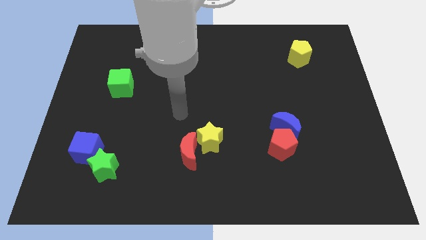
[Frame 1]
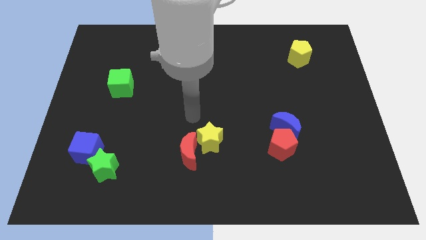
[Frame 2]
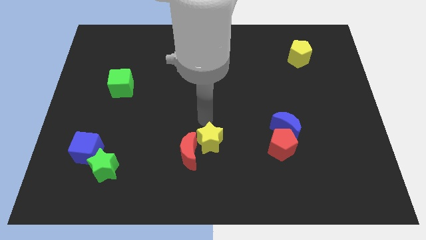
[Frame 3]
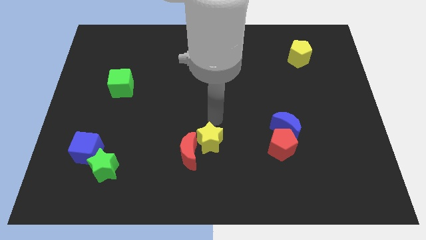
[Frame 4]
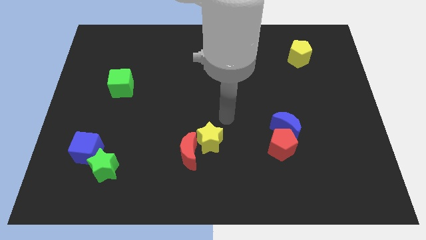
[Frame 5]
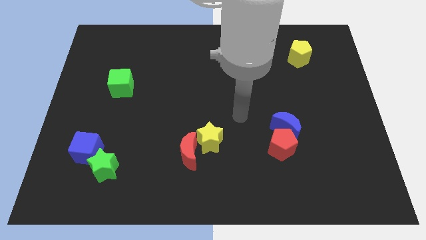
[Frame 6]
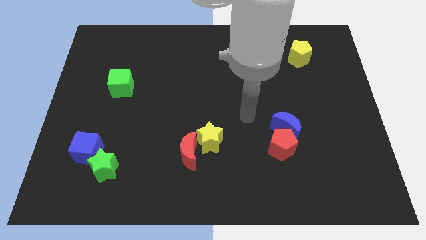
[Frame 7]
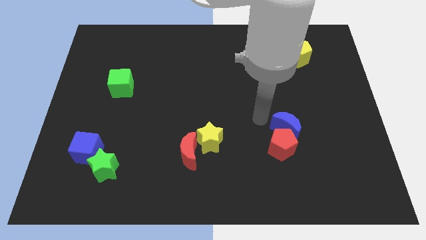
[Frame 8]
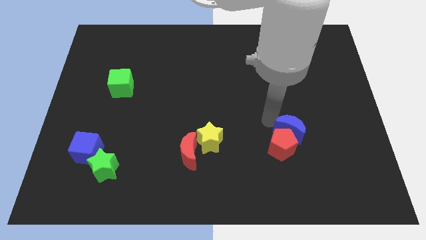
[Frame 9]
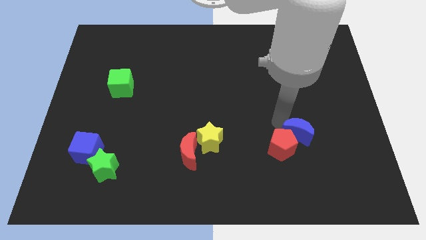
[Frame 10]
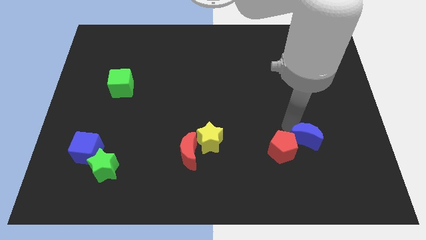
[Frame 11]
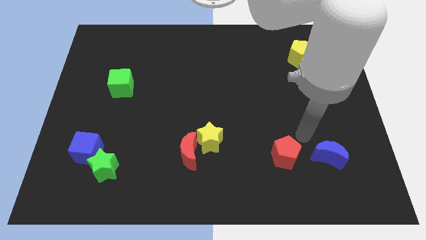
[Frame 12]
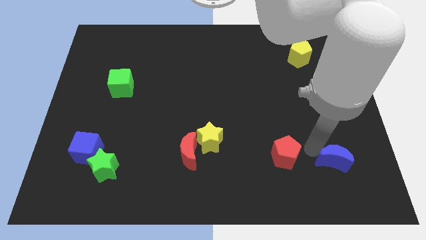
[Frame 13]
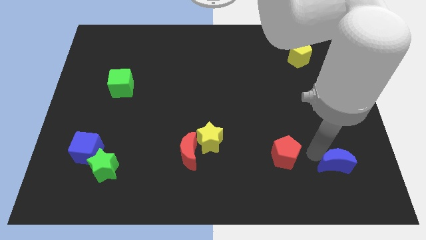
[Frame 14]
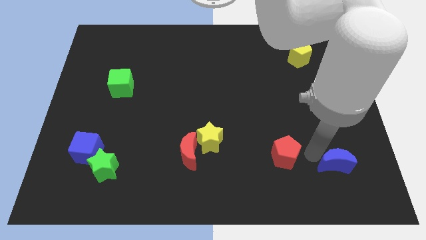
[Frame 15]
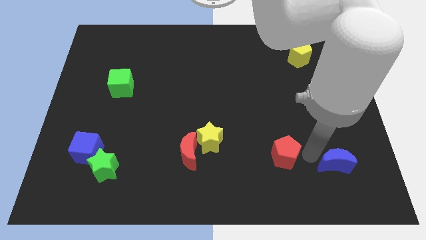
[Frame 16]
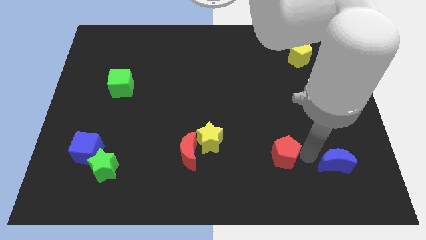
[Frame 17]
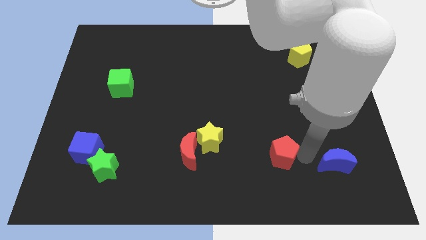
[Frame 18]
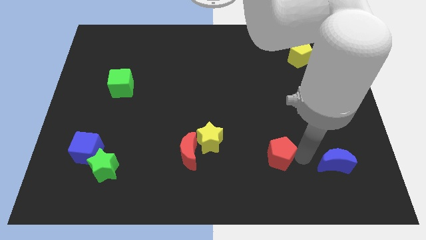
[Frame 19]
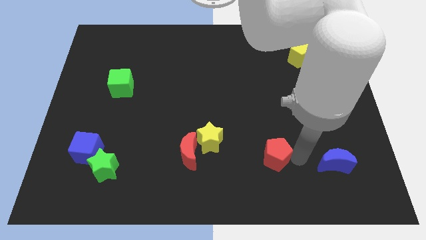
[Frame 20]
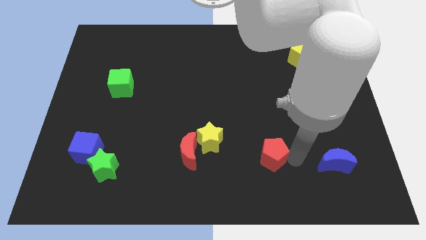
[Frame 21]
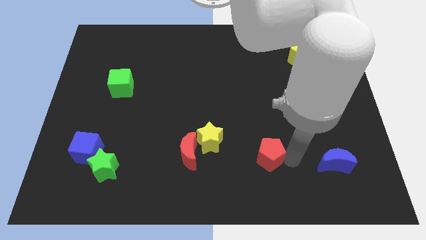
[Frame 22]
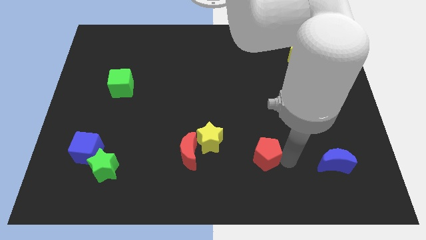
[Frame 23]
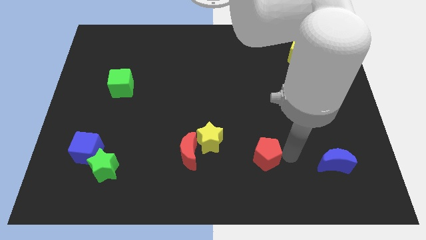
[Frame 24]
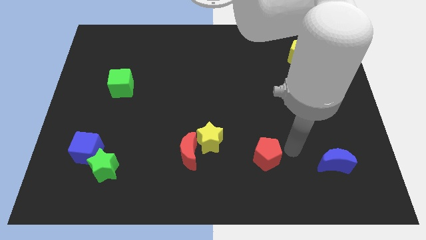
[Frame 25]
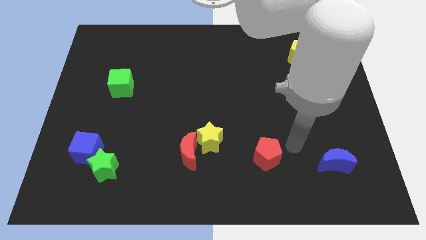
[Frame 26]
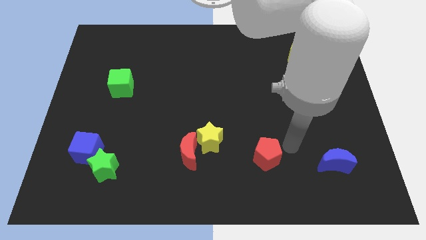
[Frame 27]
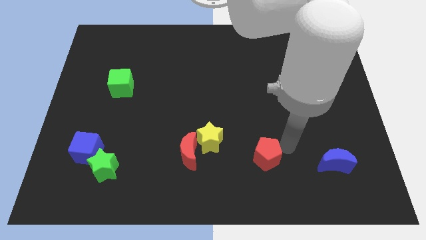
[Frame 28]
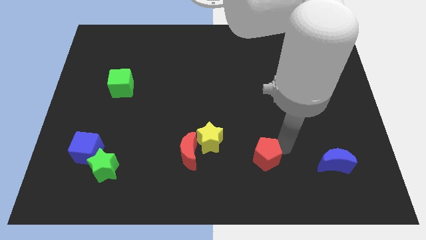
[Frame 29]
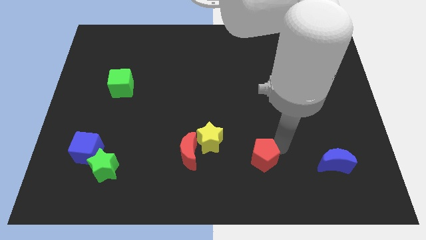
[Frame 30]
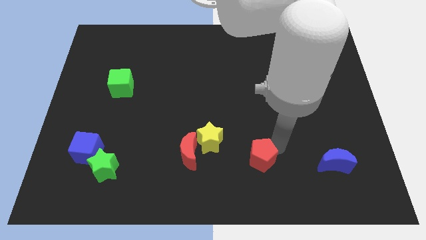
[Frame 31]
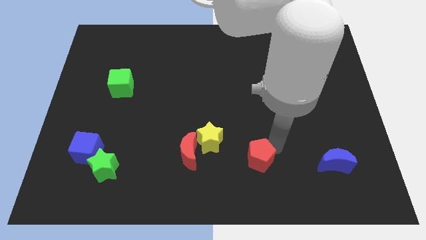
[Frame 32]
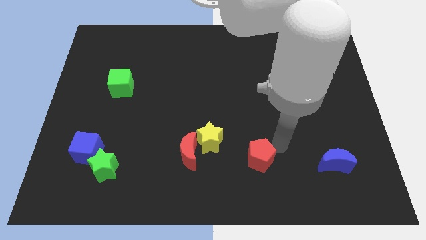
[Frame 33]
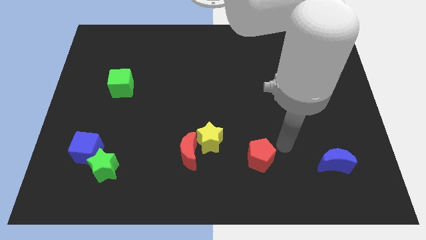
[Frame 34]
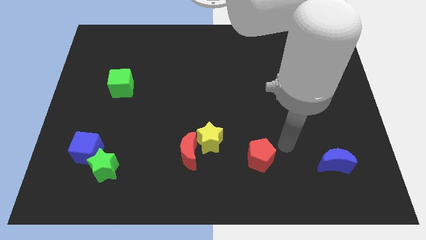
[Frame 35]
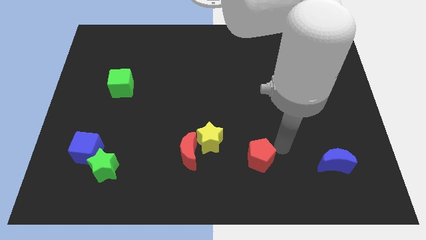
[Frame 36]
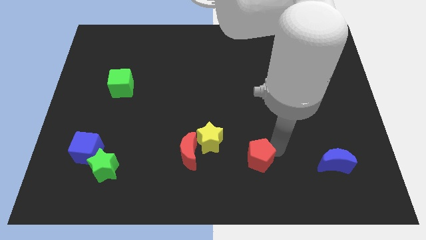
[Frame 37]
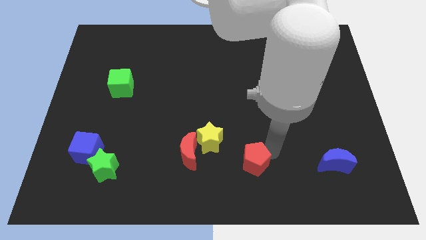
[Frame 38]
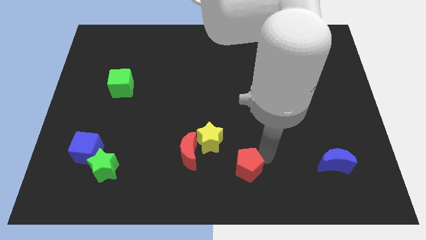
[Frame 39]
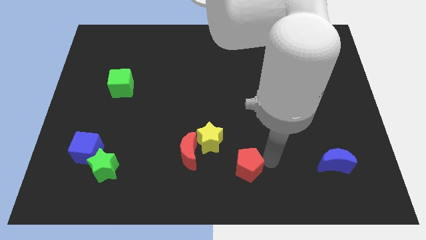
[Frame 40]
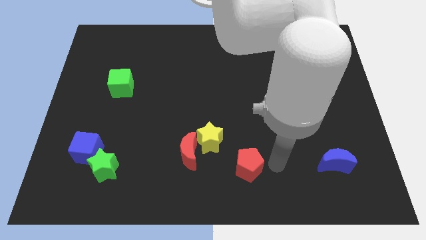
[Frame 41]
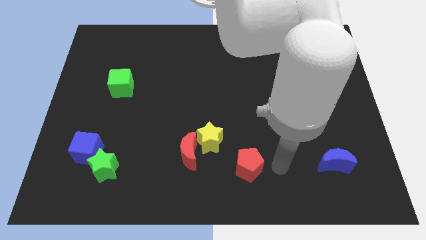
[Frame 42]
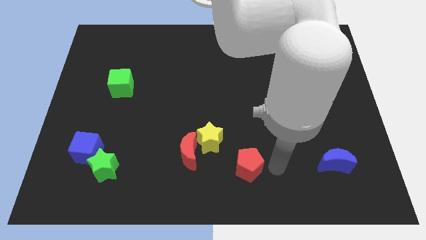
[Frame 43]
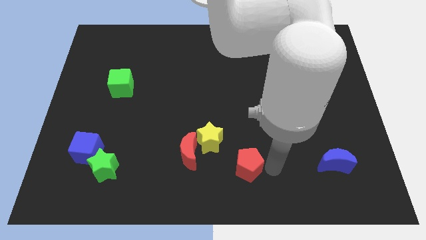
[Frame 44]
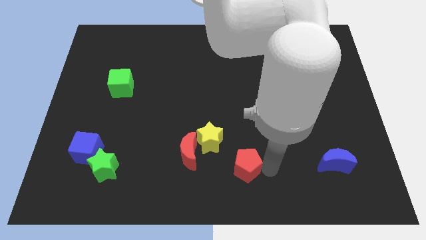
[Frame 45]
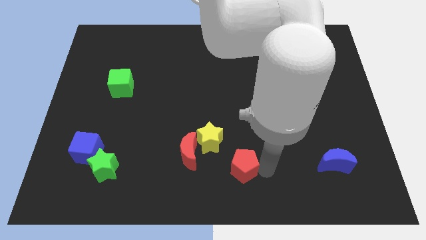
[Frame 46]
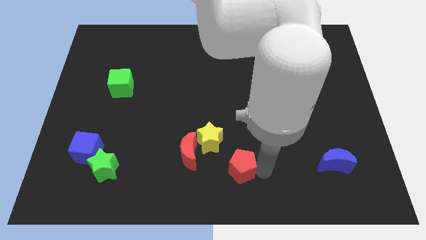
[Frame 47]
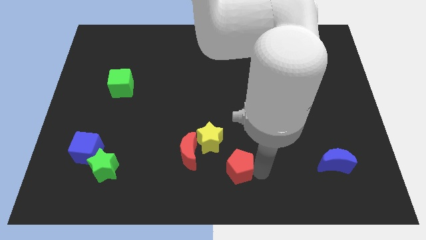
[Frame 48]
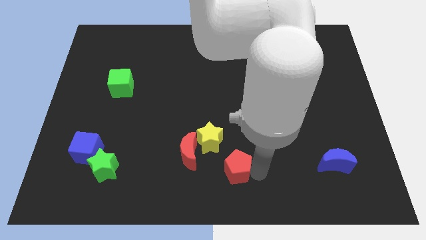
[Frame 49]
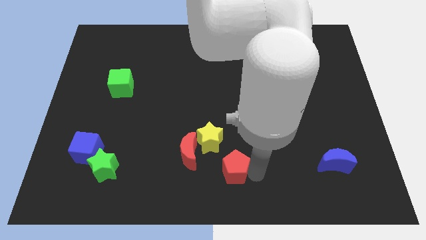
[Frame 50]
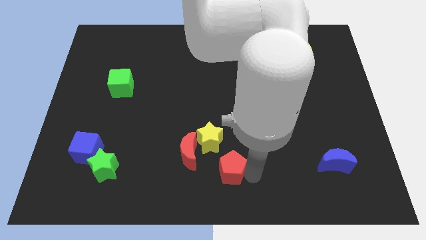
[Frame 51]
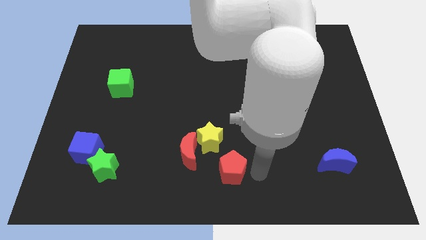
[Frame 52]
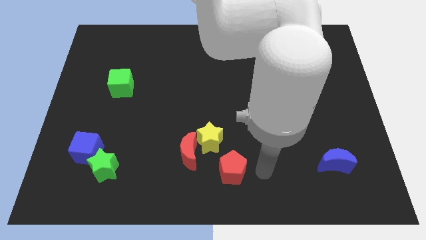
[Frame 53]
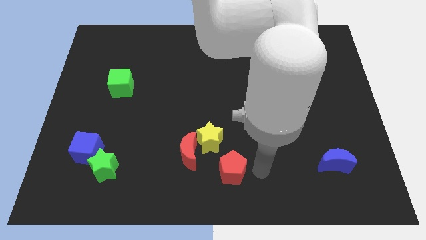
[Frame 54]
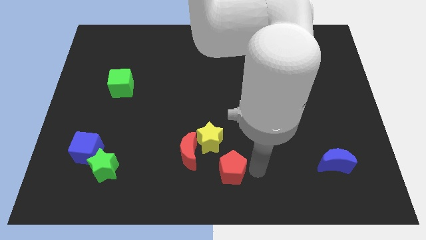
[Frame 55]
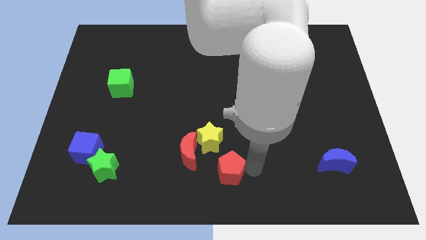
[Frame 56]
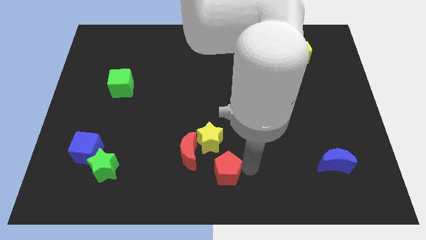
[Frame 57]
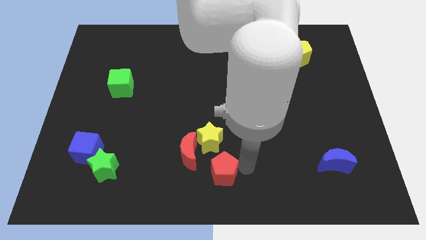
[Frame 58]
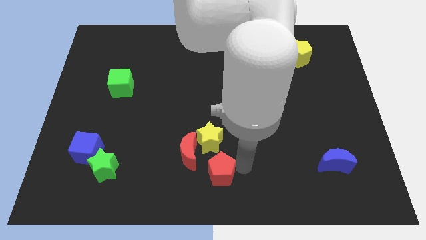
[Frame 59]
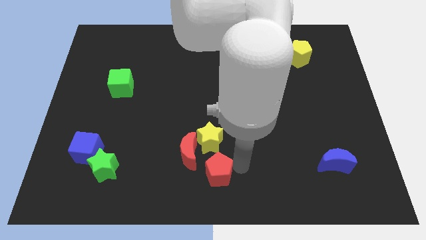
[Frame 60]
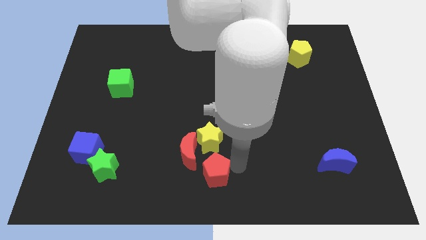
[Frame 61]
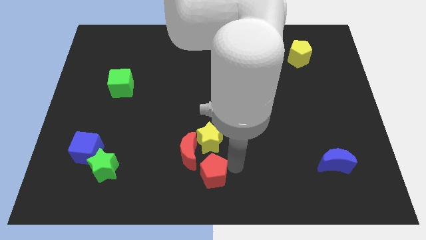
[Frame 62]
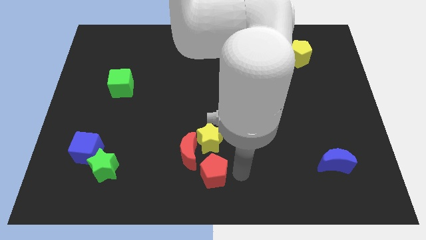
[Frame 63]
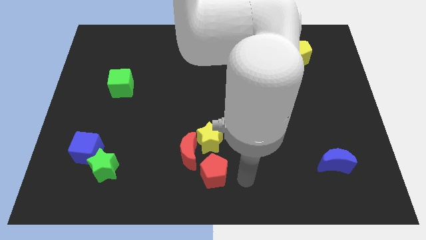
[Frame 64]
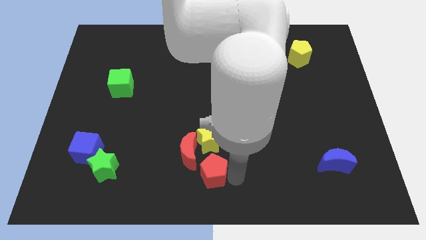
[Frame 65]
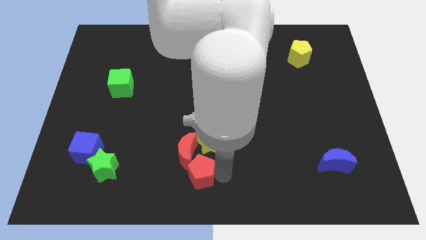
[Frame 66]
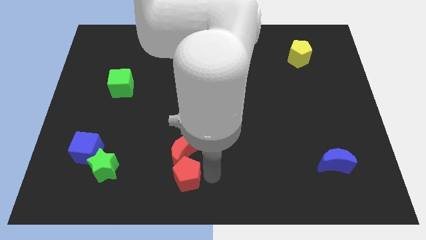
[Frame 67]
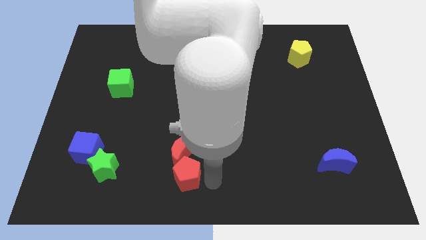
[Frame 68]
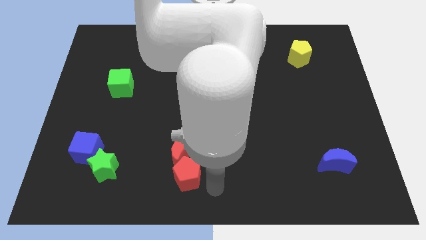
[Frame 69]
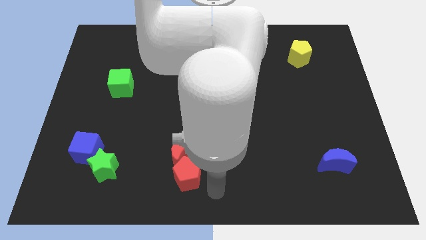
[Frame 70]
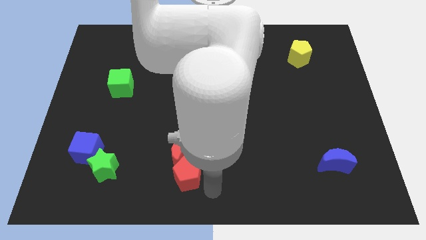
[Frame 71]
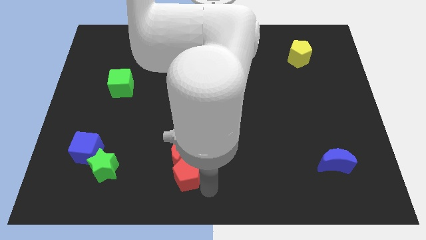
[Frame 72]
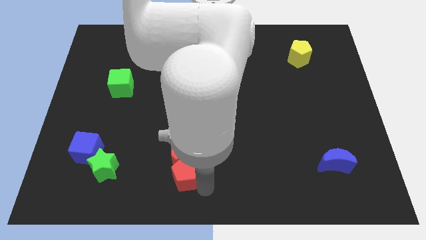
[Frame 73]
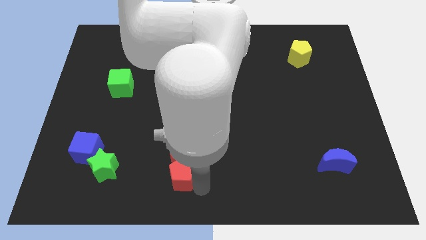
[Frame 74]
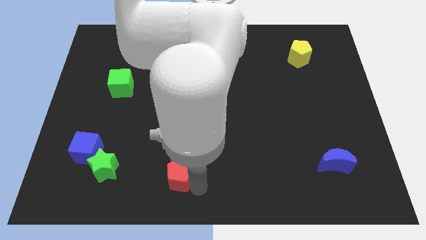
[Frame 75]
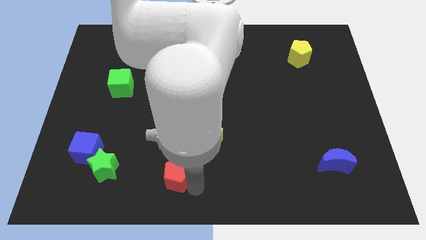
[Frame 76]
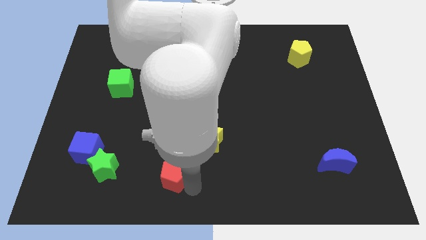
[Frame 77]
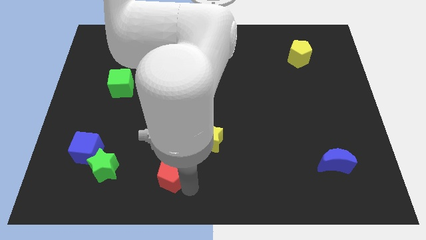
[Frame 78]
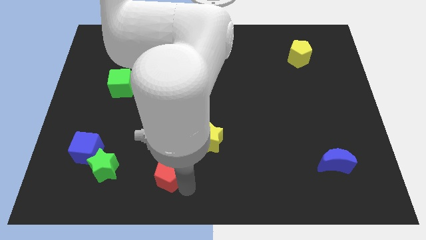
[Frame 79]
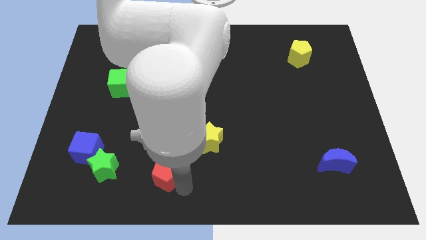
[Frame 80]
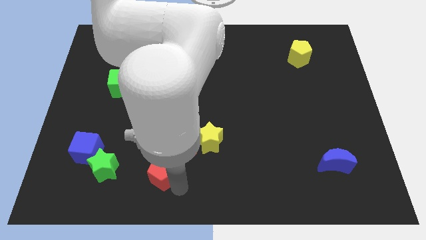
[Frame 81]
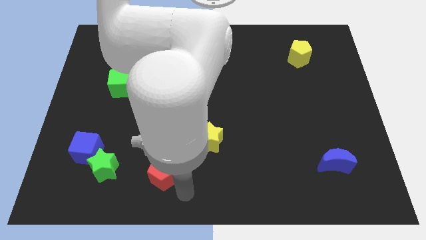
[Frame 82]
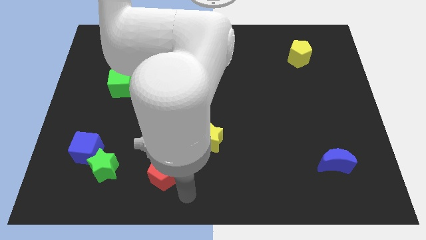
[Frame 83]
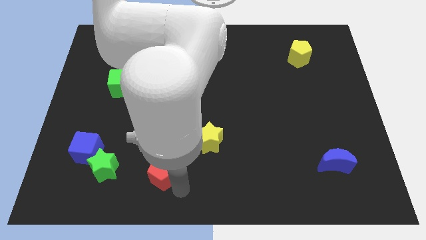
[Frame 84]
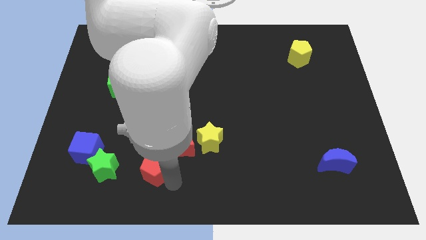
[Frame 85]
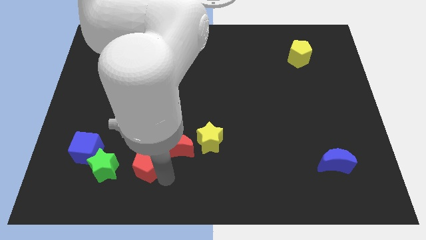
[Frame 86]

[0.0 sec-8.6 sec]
push the red pentagon right of the blue cube
